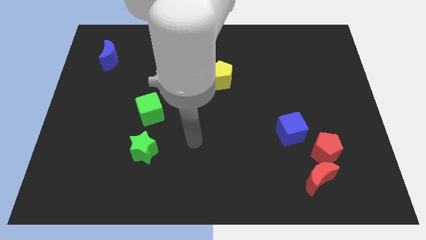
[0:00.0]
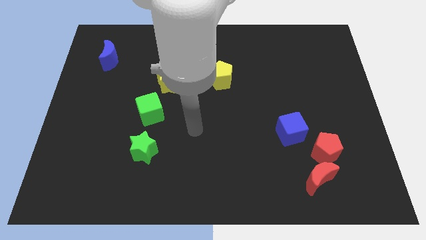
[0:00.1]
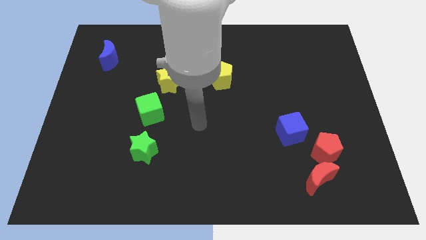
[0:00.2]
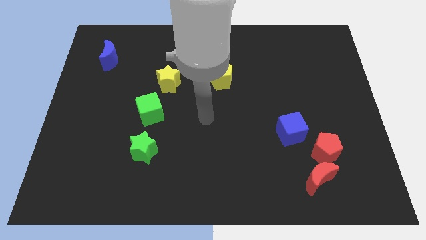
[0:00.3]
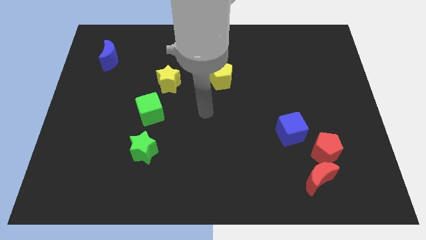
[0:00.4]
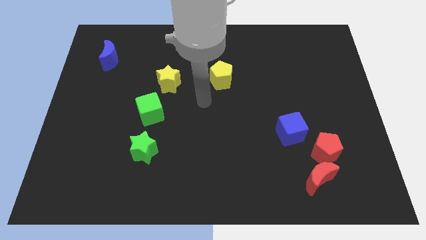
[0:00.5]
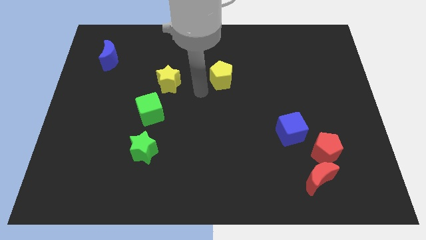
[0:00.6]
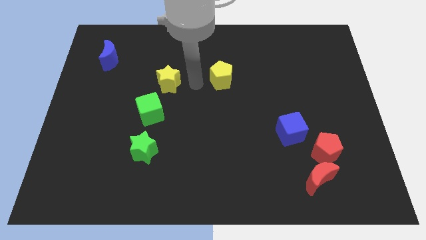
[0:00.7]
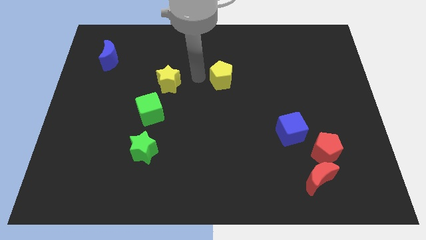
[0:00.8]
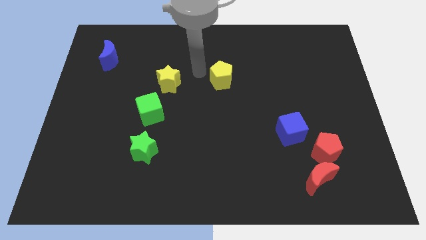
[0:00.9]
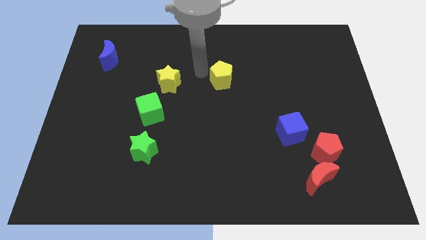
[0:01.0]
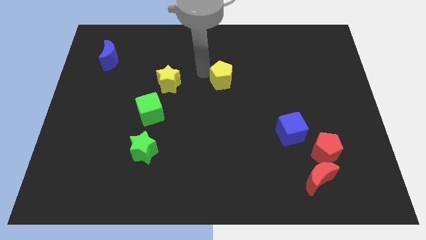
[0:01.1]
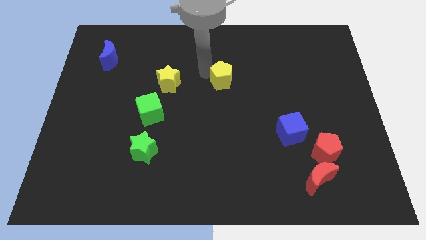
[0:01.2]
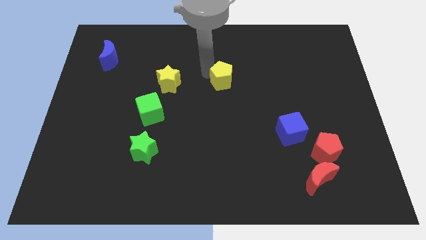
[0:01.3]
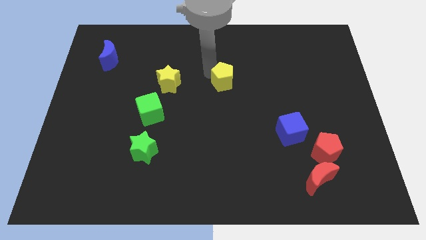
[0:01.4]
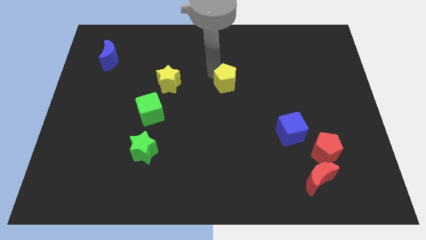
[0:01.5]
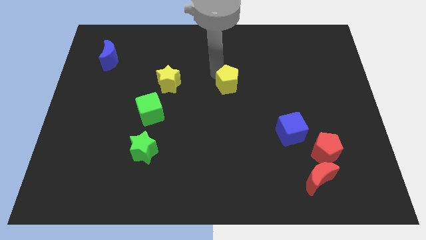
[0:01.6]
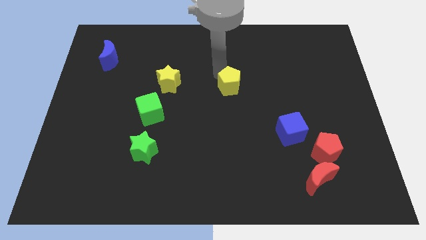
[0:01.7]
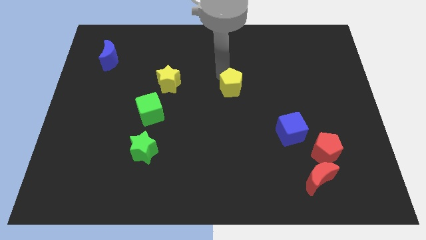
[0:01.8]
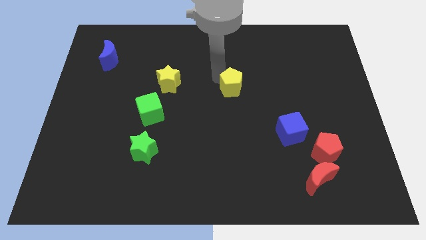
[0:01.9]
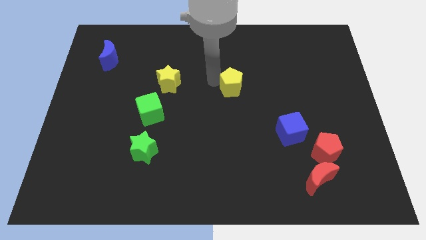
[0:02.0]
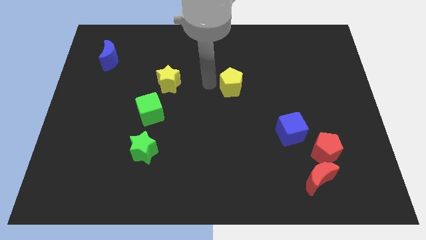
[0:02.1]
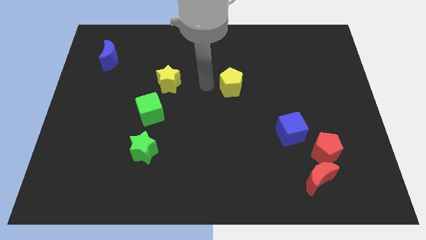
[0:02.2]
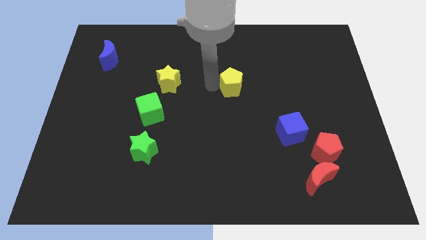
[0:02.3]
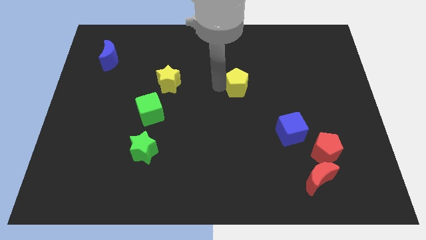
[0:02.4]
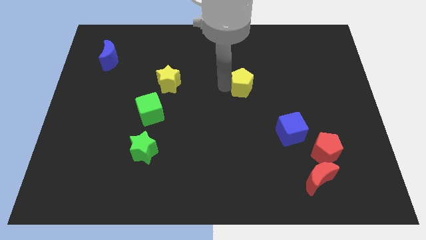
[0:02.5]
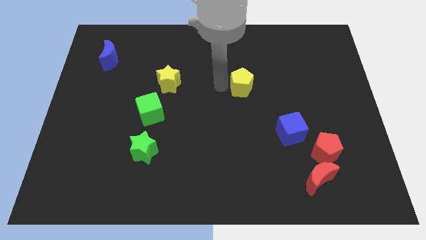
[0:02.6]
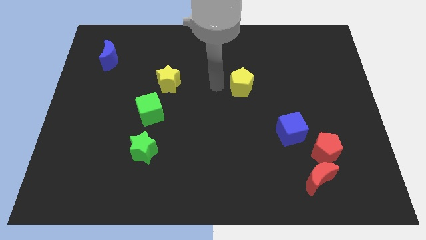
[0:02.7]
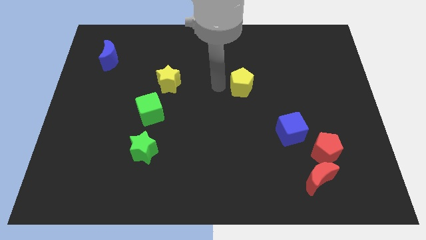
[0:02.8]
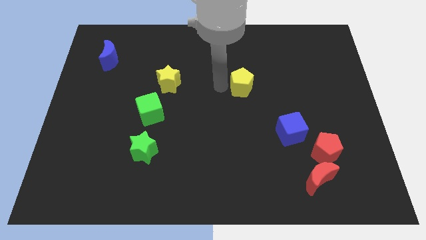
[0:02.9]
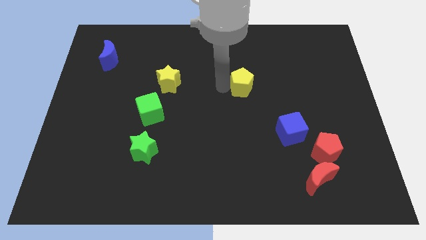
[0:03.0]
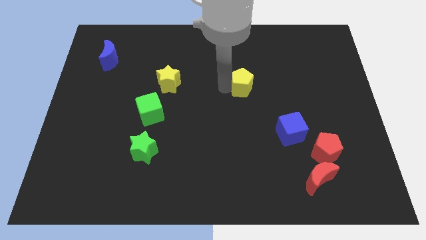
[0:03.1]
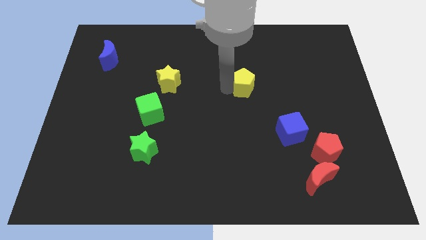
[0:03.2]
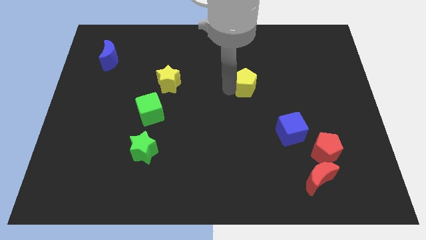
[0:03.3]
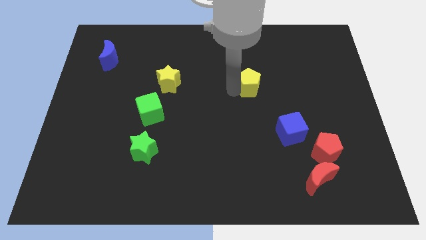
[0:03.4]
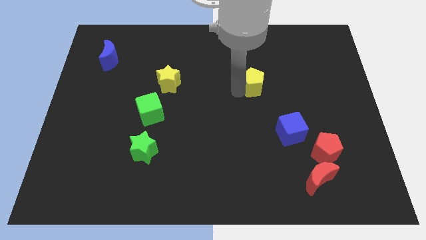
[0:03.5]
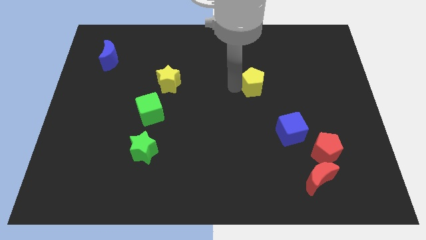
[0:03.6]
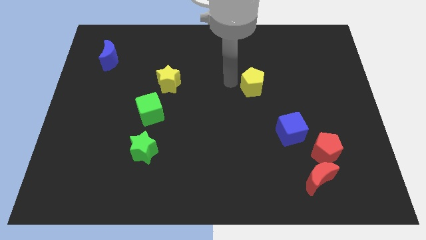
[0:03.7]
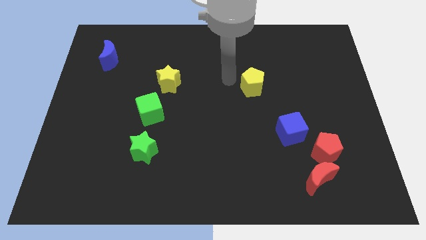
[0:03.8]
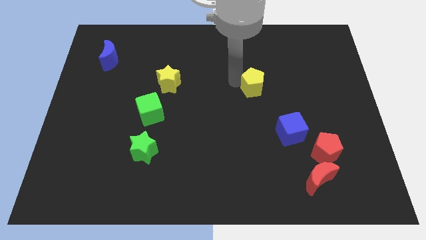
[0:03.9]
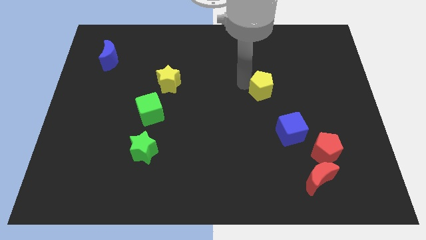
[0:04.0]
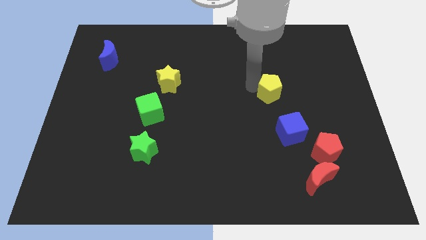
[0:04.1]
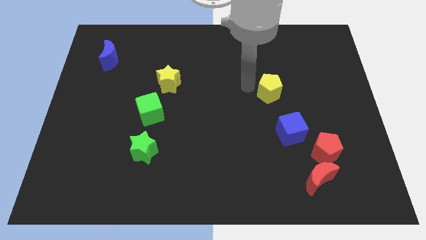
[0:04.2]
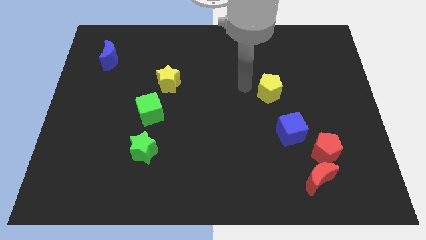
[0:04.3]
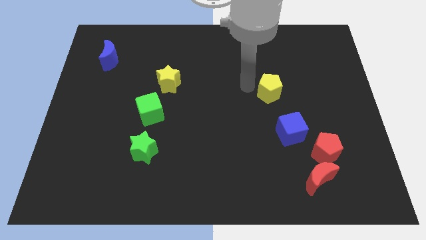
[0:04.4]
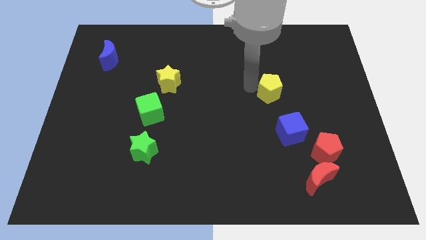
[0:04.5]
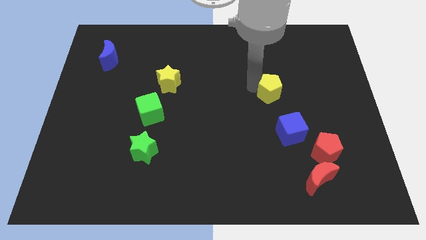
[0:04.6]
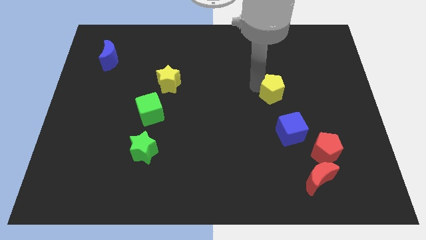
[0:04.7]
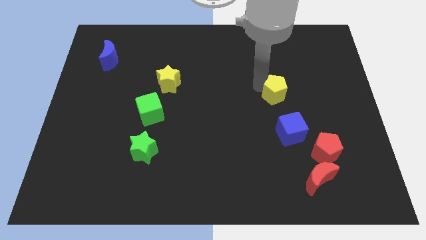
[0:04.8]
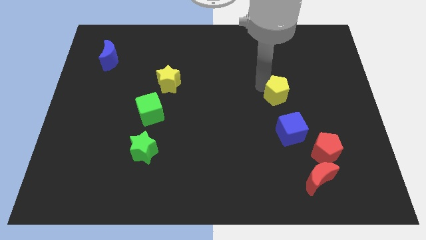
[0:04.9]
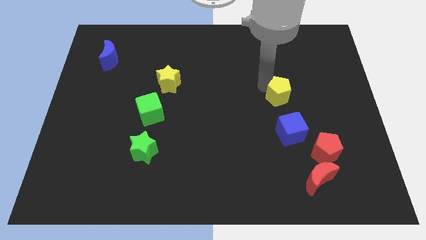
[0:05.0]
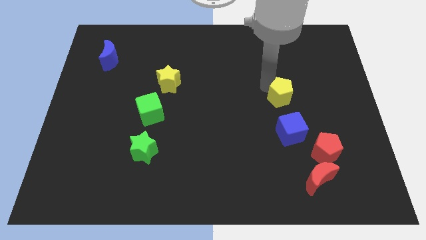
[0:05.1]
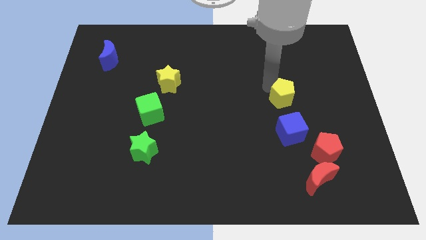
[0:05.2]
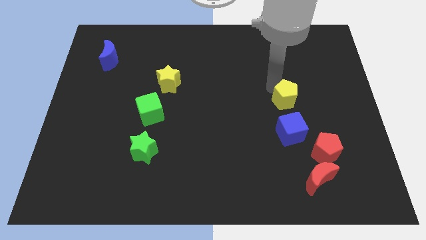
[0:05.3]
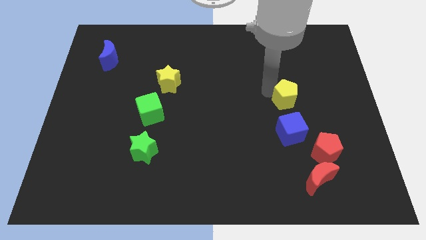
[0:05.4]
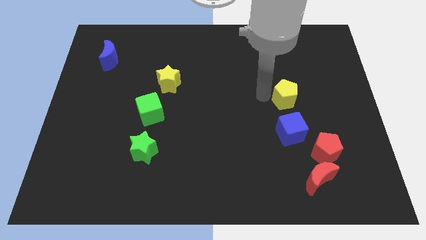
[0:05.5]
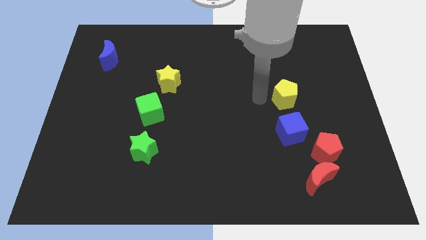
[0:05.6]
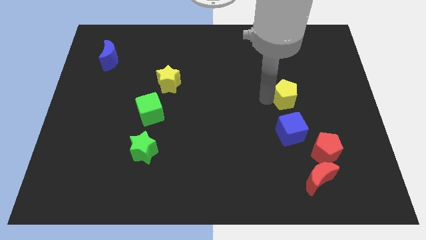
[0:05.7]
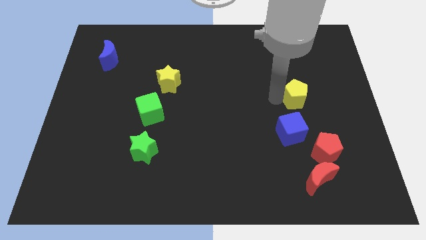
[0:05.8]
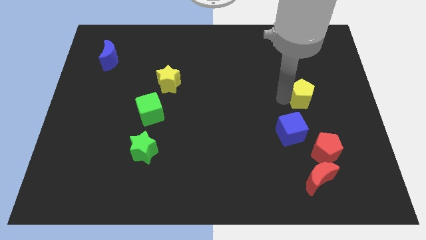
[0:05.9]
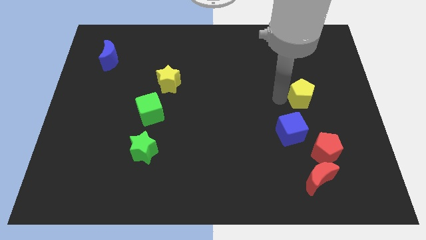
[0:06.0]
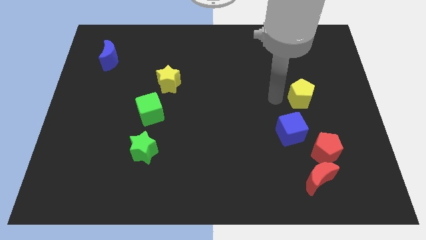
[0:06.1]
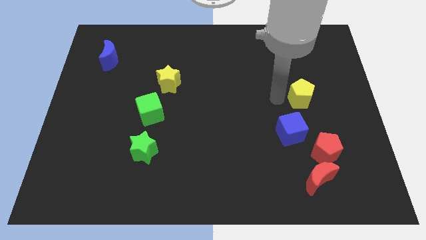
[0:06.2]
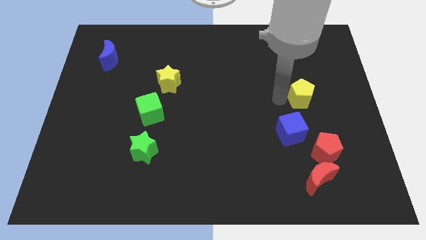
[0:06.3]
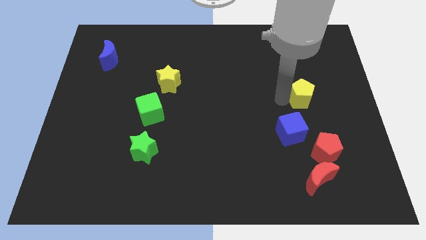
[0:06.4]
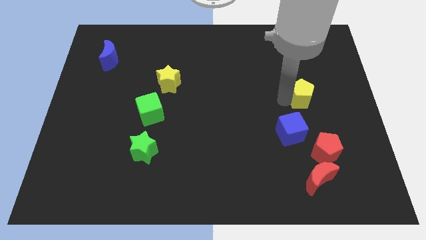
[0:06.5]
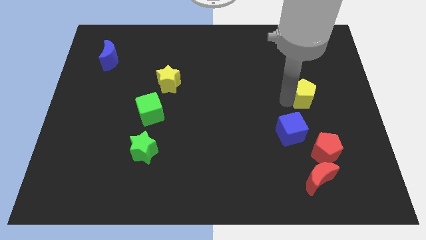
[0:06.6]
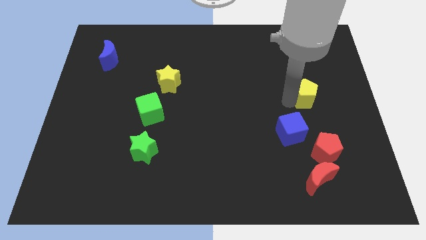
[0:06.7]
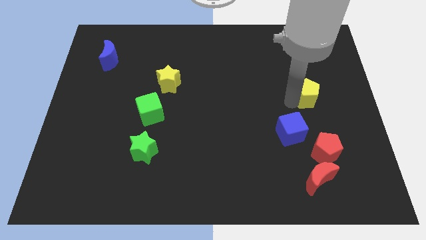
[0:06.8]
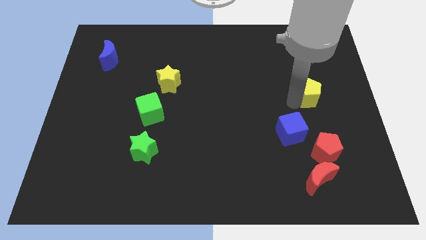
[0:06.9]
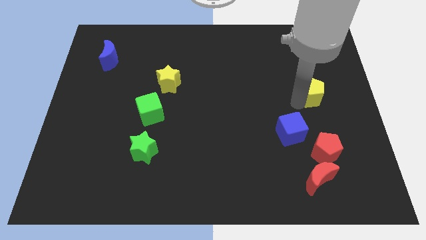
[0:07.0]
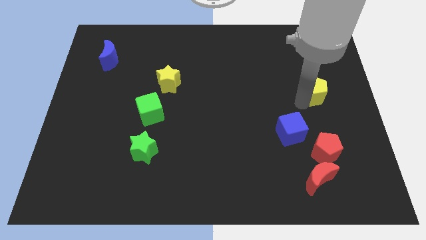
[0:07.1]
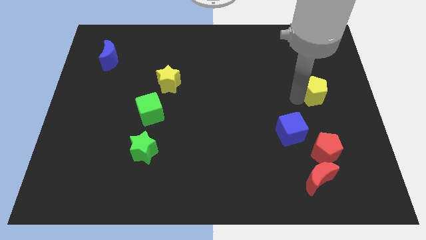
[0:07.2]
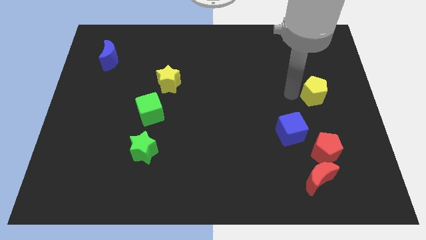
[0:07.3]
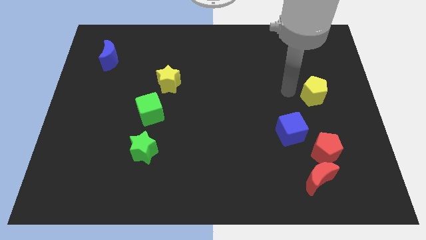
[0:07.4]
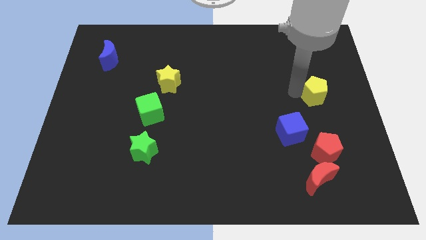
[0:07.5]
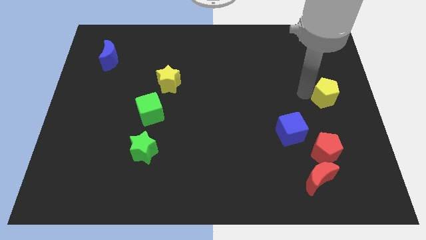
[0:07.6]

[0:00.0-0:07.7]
put the yellow pentagon to the right side
